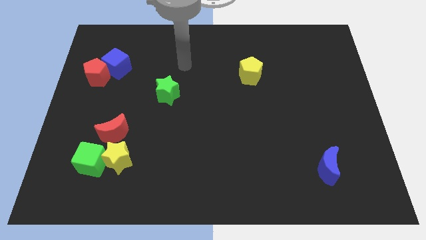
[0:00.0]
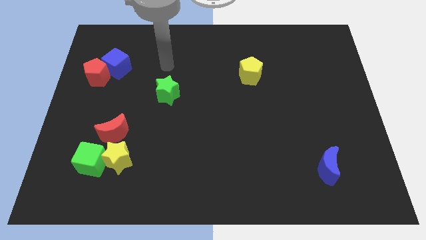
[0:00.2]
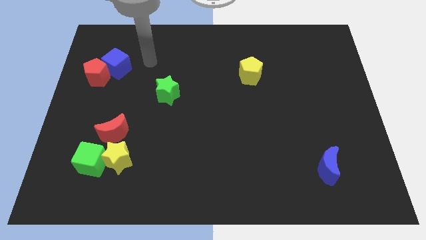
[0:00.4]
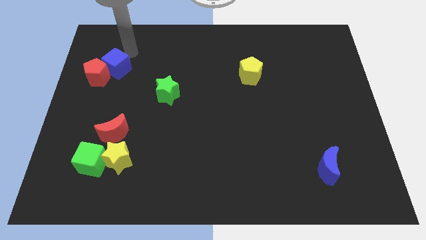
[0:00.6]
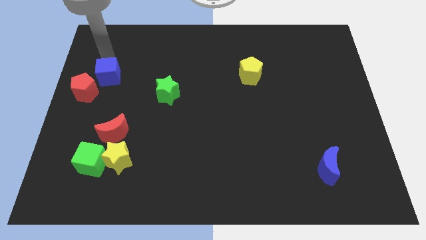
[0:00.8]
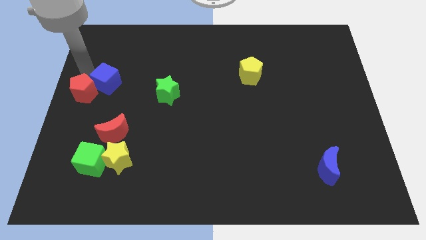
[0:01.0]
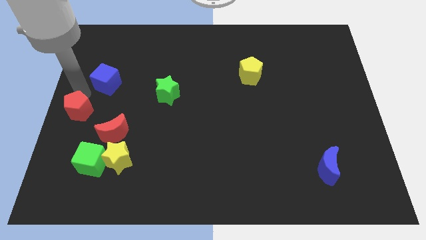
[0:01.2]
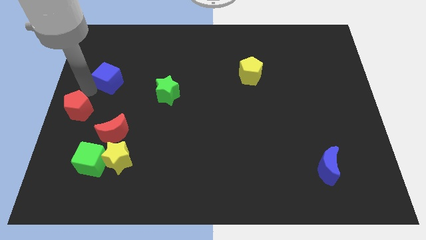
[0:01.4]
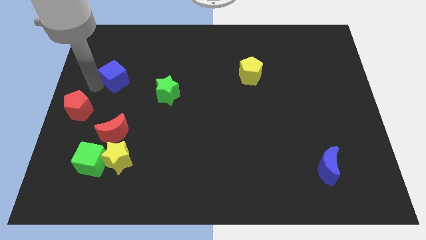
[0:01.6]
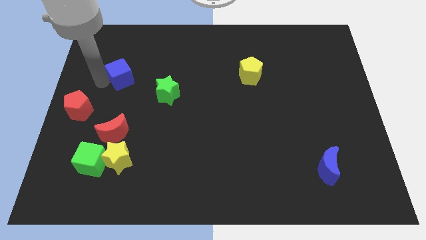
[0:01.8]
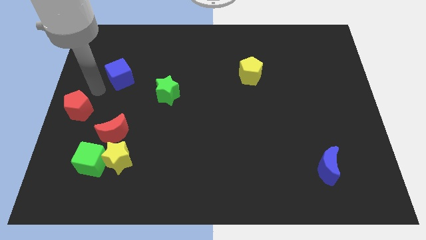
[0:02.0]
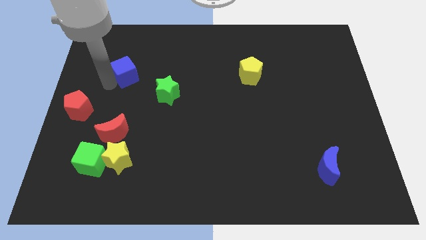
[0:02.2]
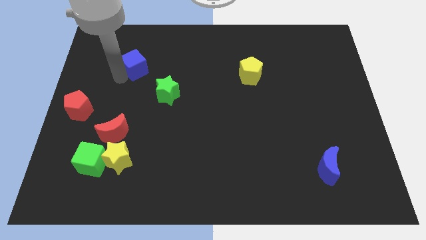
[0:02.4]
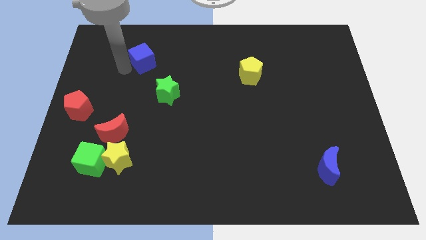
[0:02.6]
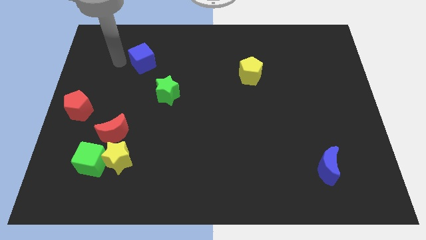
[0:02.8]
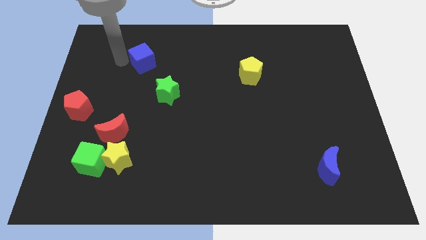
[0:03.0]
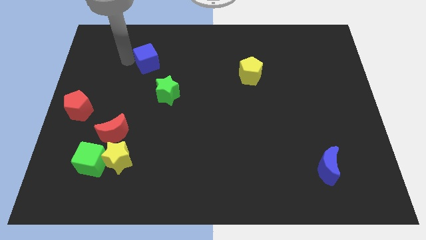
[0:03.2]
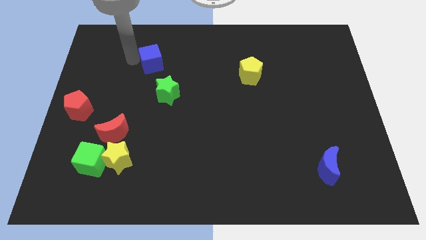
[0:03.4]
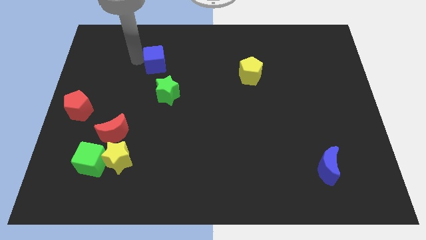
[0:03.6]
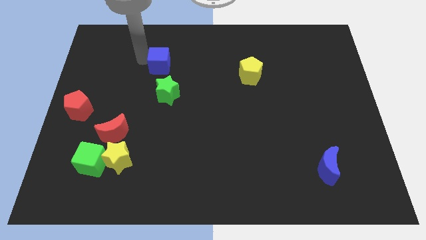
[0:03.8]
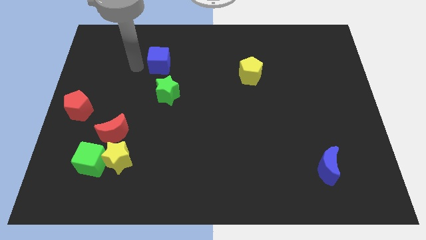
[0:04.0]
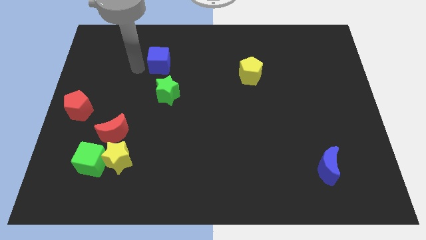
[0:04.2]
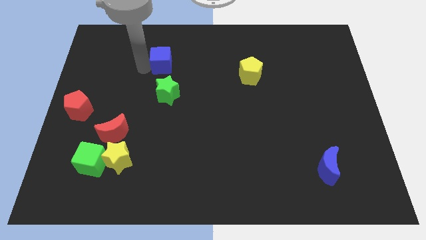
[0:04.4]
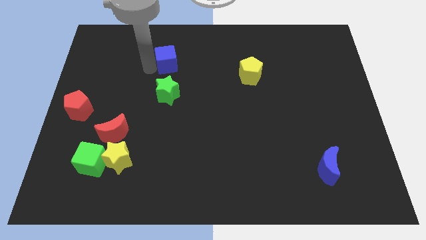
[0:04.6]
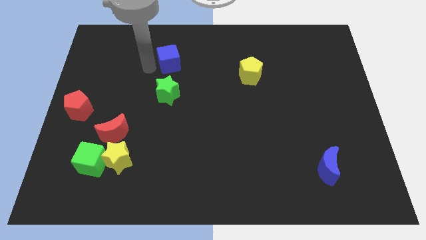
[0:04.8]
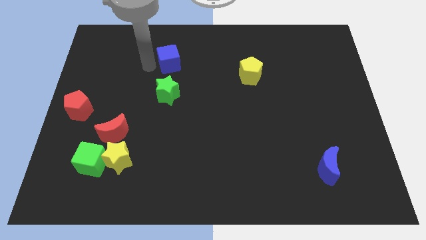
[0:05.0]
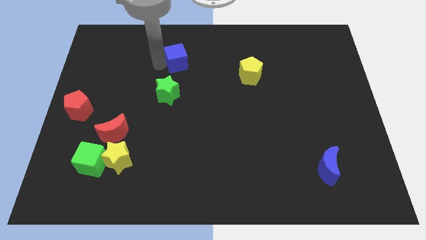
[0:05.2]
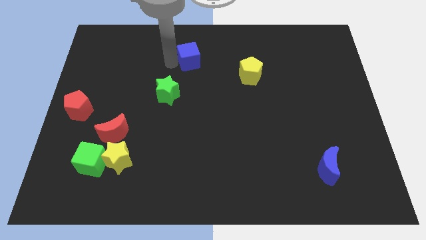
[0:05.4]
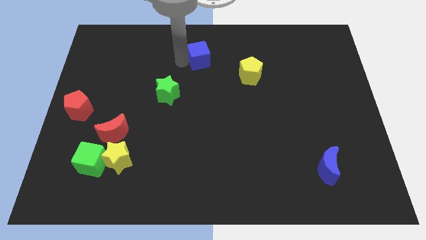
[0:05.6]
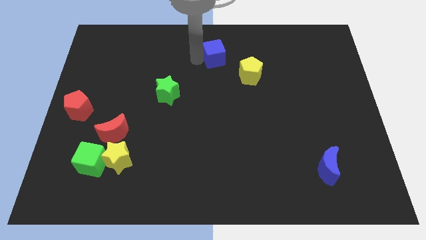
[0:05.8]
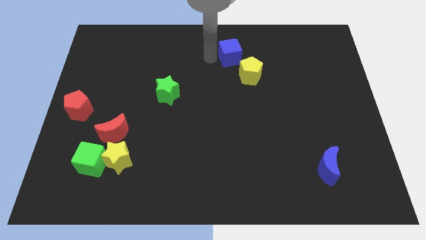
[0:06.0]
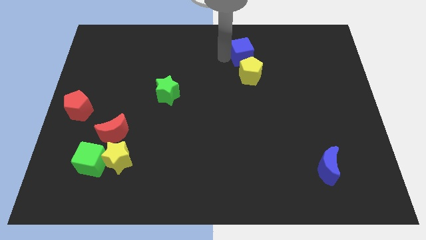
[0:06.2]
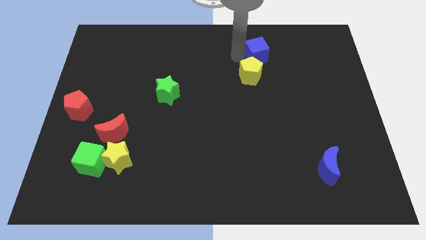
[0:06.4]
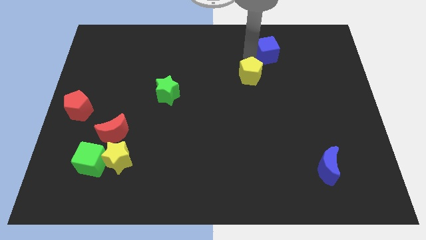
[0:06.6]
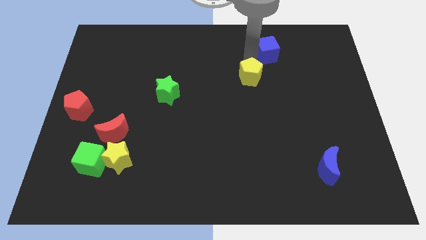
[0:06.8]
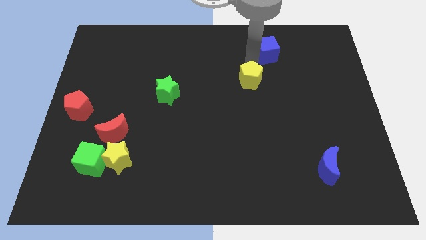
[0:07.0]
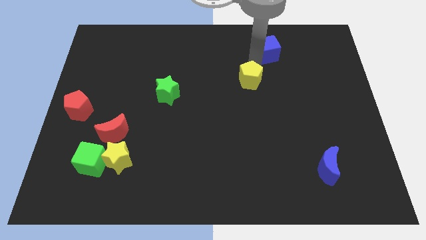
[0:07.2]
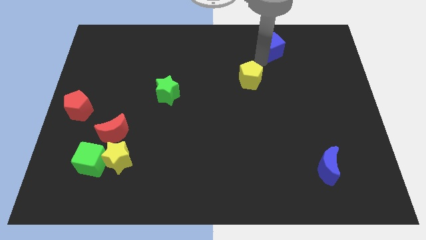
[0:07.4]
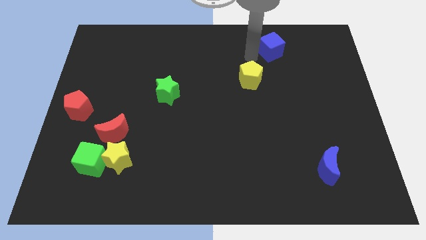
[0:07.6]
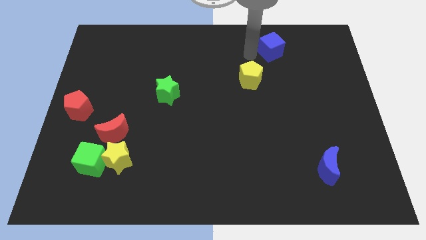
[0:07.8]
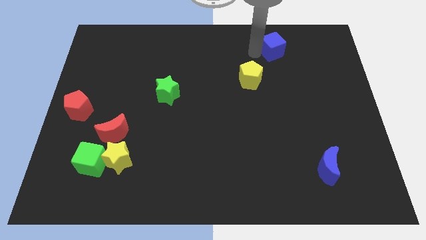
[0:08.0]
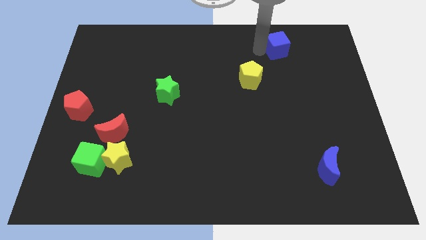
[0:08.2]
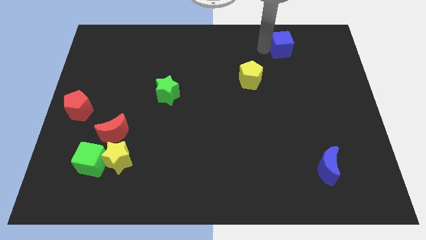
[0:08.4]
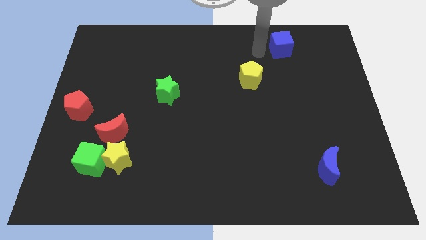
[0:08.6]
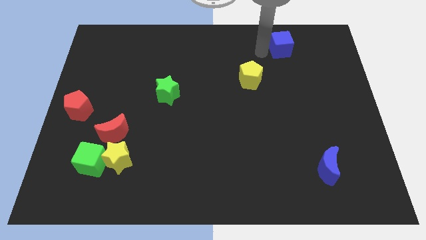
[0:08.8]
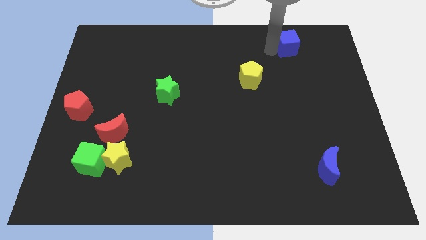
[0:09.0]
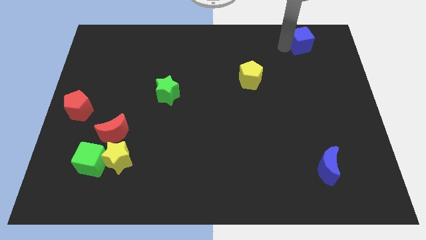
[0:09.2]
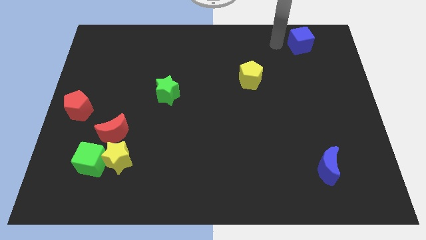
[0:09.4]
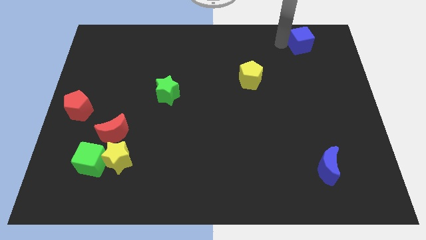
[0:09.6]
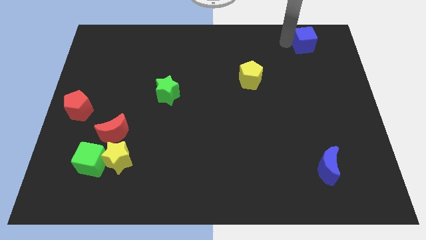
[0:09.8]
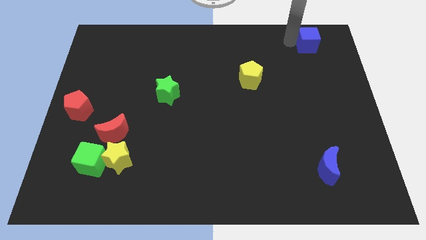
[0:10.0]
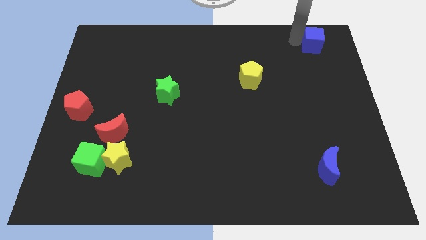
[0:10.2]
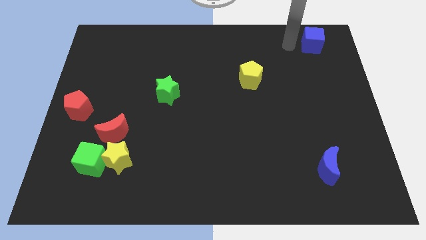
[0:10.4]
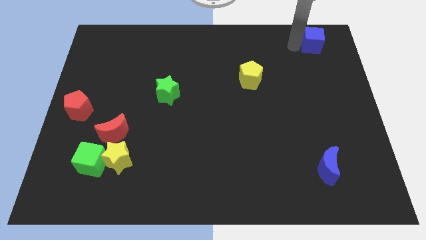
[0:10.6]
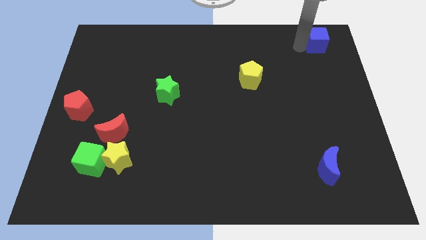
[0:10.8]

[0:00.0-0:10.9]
move the blue cube to the top right corner
